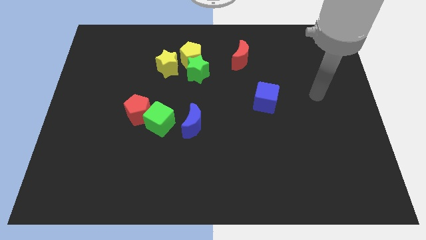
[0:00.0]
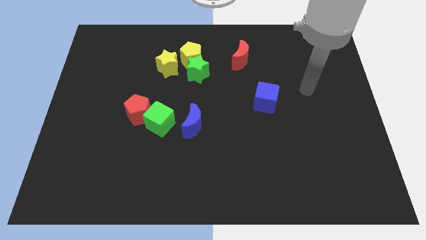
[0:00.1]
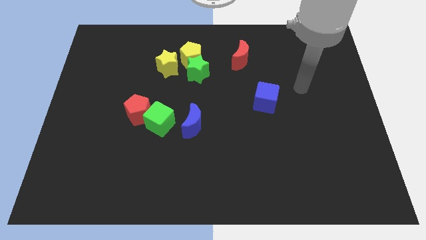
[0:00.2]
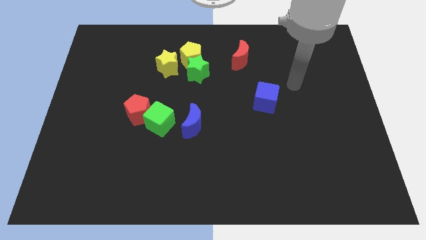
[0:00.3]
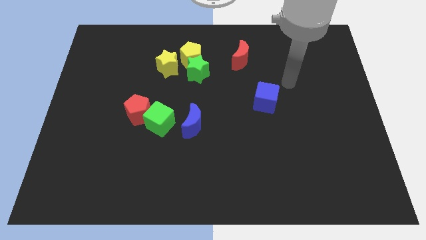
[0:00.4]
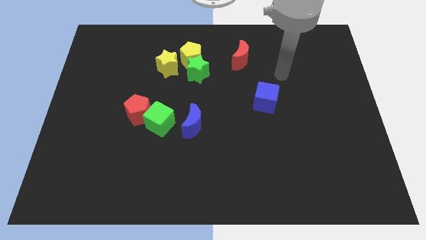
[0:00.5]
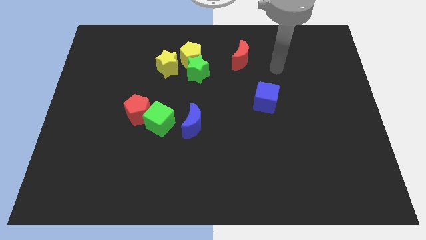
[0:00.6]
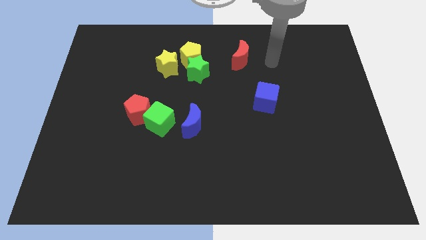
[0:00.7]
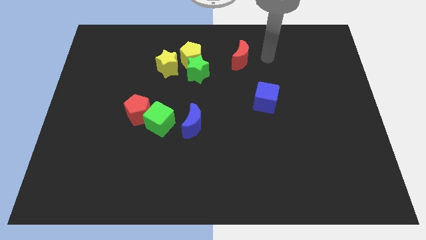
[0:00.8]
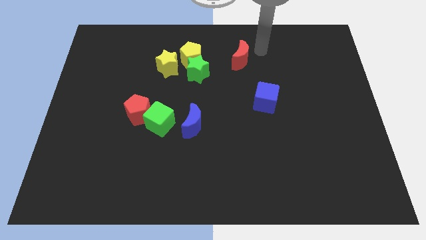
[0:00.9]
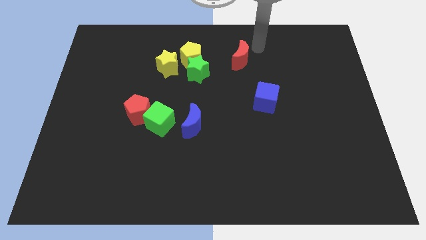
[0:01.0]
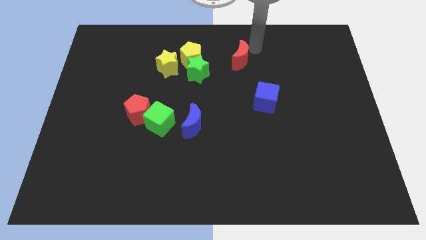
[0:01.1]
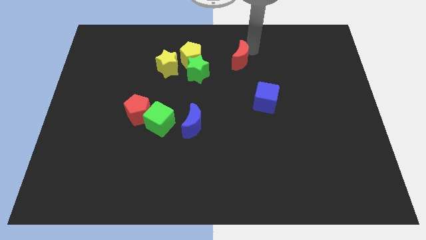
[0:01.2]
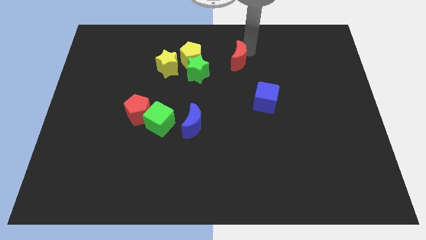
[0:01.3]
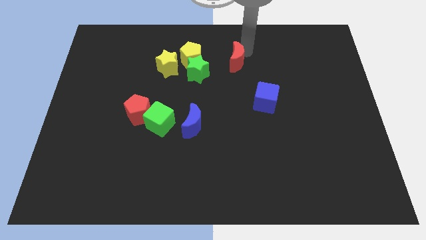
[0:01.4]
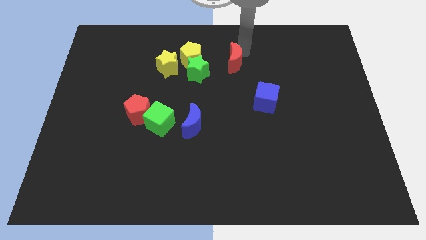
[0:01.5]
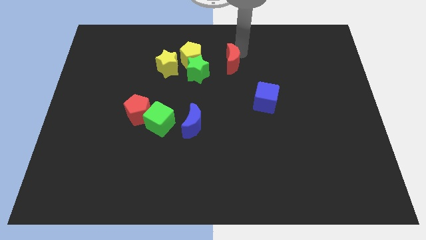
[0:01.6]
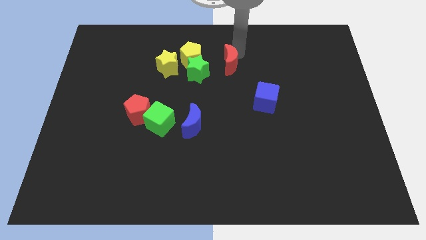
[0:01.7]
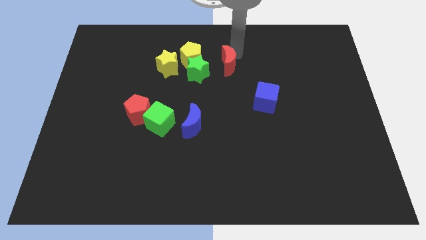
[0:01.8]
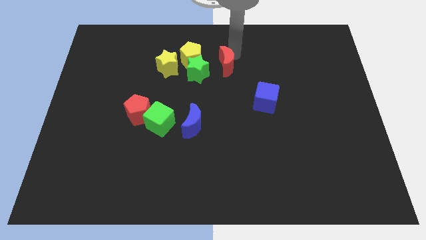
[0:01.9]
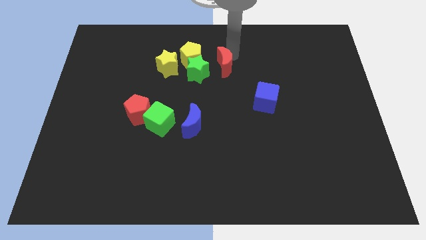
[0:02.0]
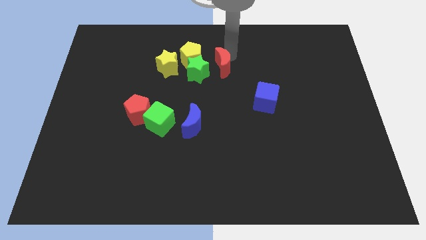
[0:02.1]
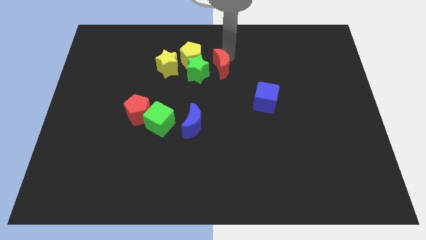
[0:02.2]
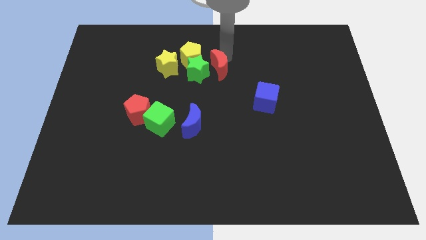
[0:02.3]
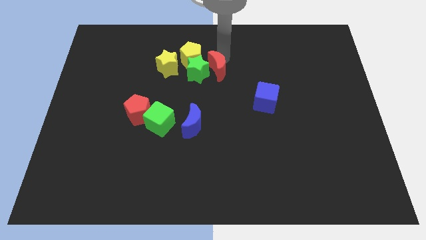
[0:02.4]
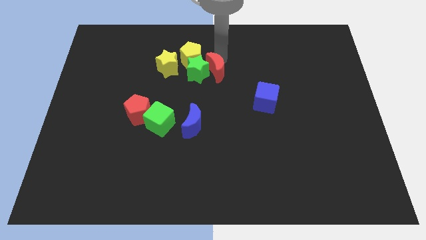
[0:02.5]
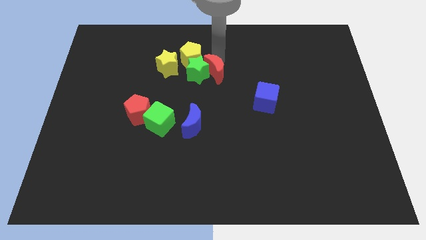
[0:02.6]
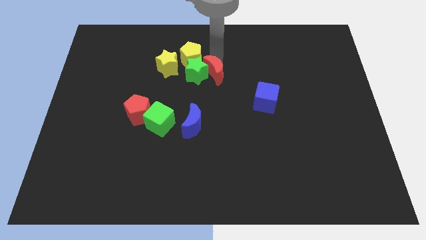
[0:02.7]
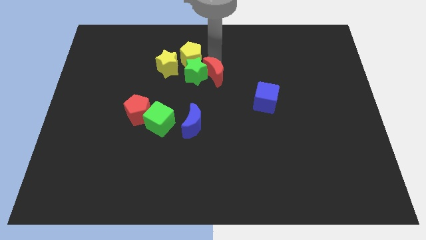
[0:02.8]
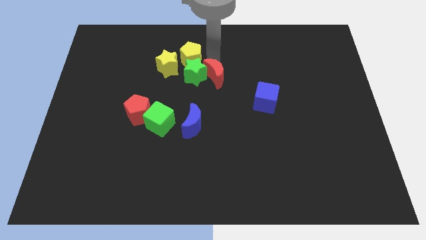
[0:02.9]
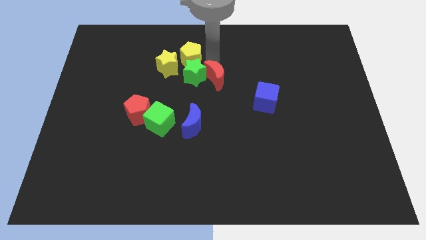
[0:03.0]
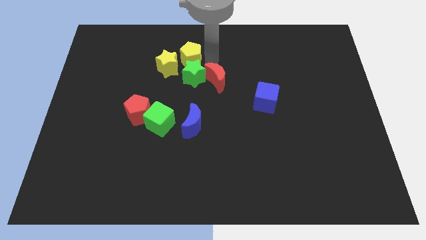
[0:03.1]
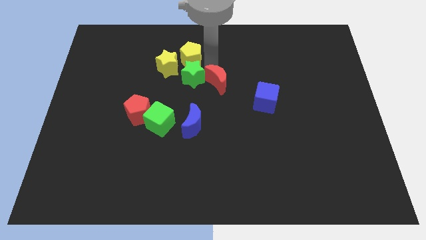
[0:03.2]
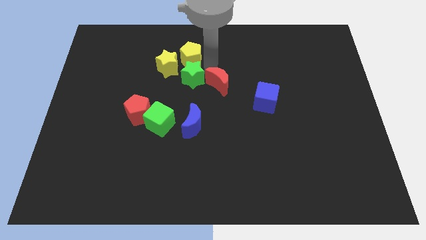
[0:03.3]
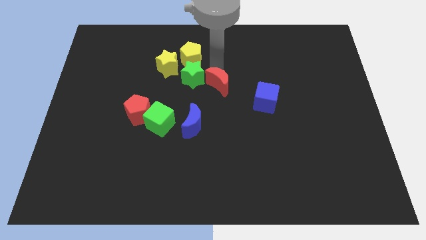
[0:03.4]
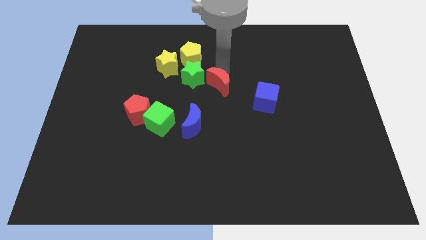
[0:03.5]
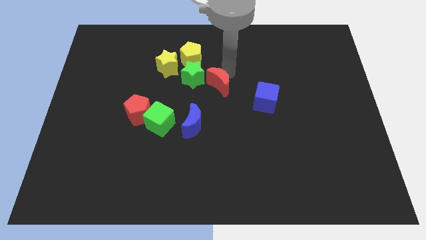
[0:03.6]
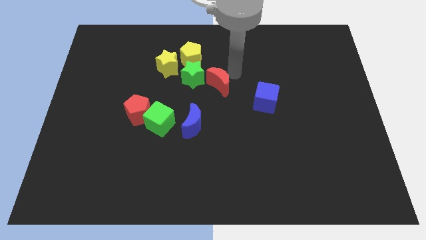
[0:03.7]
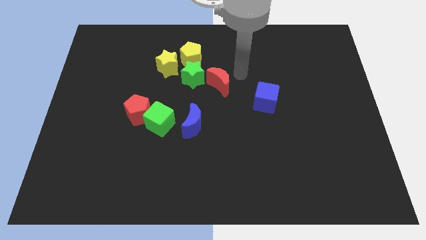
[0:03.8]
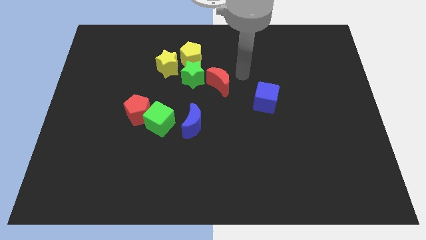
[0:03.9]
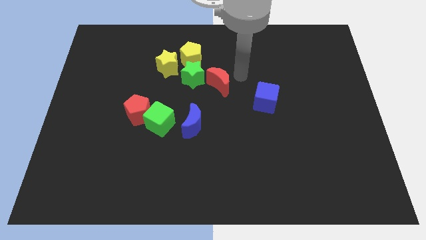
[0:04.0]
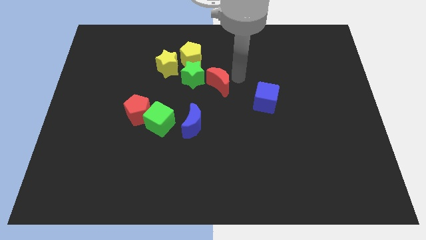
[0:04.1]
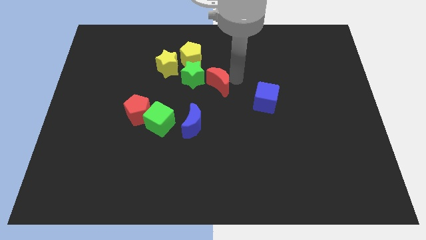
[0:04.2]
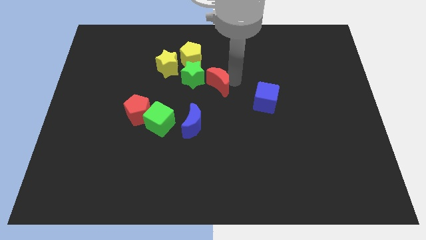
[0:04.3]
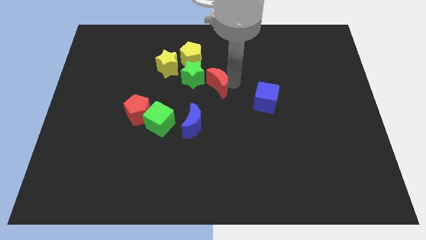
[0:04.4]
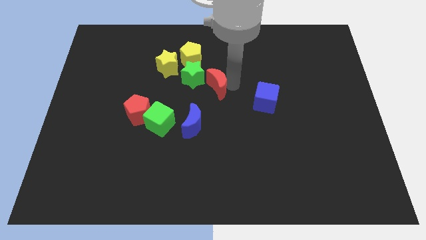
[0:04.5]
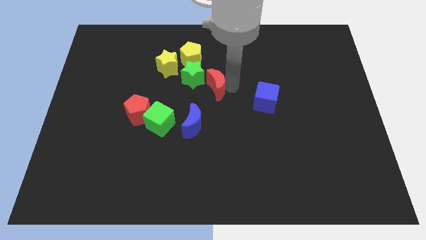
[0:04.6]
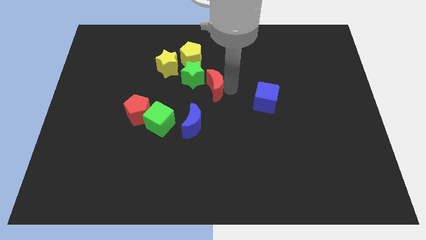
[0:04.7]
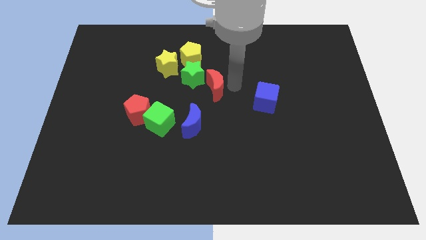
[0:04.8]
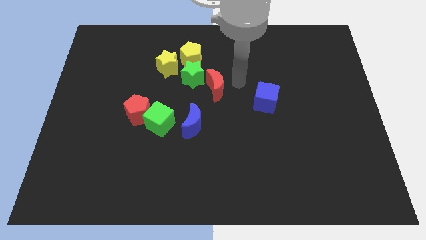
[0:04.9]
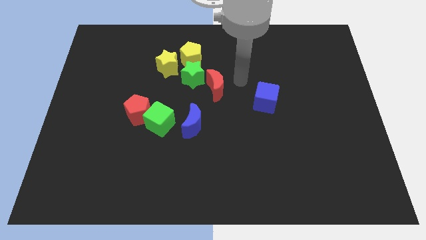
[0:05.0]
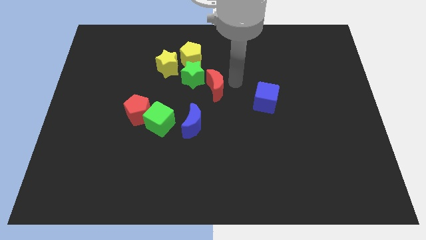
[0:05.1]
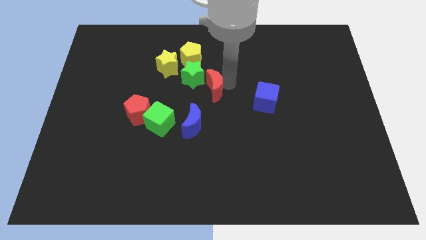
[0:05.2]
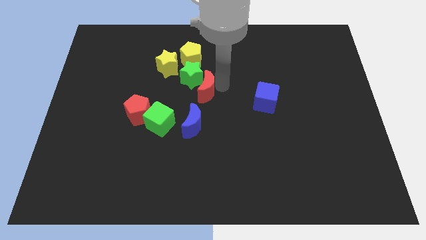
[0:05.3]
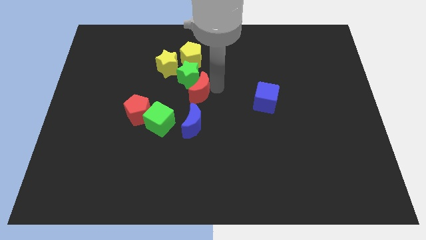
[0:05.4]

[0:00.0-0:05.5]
slide the red moon diagonally up and to the right of the green cube

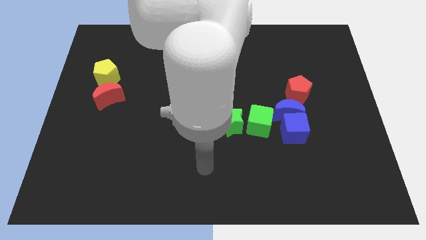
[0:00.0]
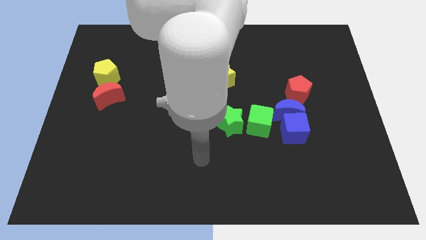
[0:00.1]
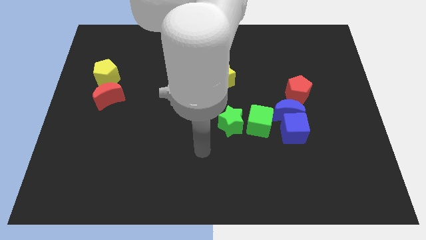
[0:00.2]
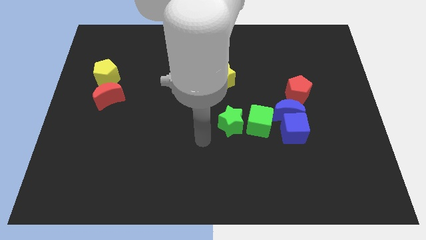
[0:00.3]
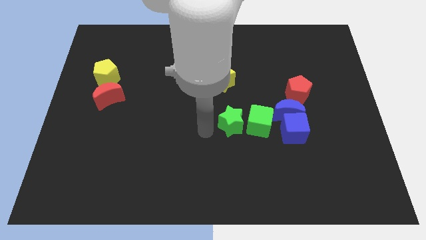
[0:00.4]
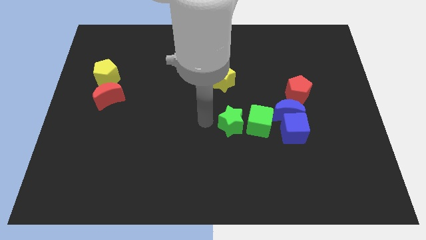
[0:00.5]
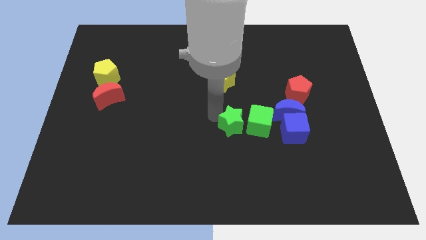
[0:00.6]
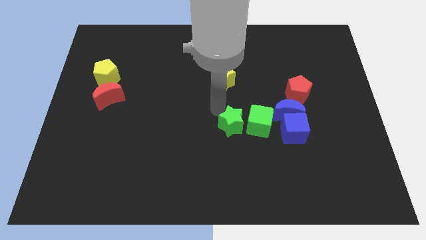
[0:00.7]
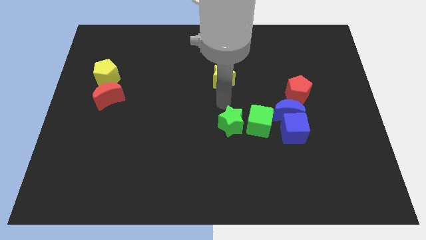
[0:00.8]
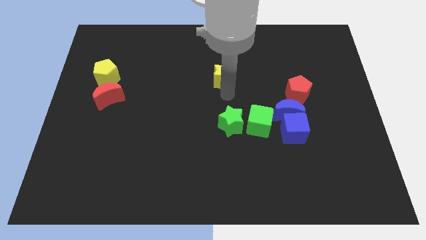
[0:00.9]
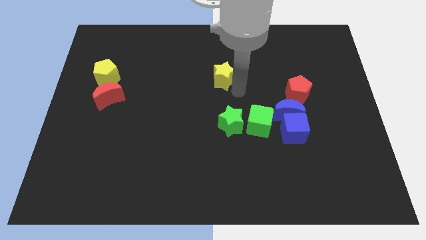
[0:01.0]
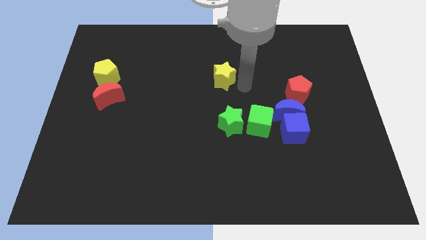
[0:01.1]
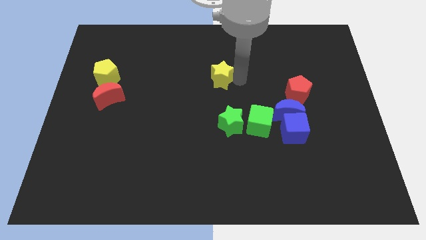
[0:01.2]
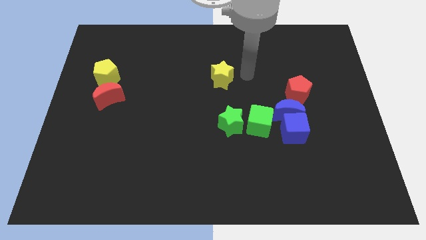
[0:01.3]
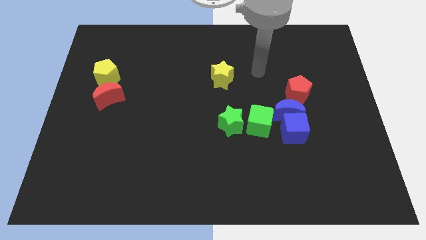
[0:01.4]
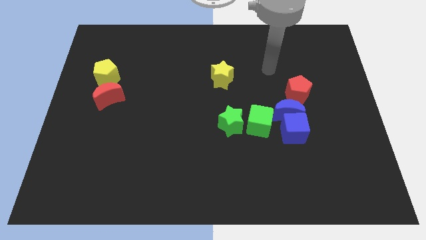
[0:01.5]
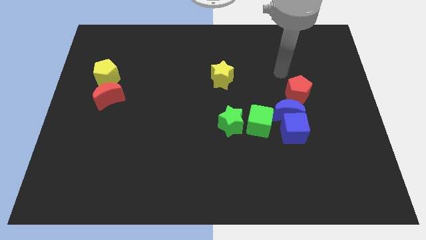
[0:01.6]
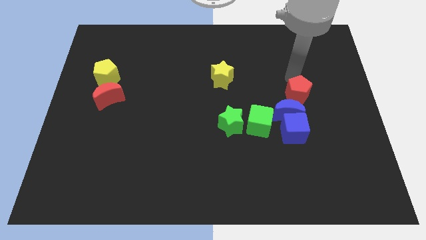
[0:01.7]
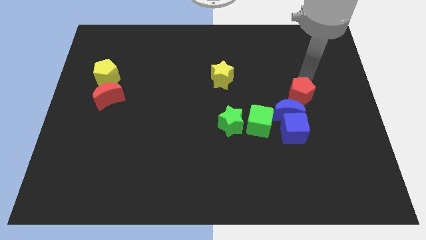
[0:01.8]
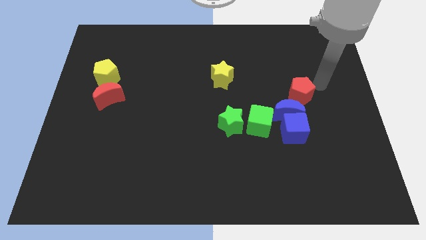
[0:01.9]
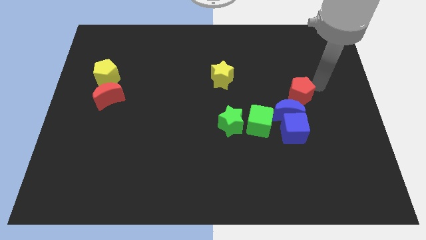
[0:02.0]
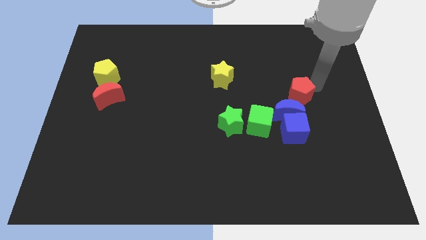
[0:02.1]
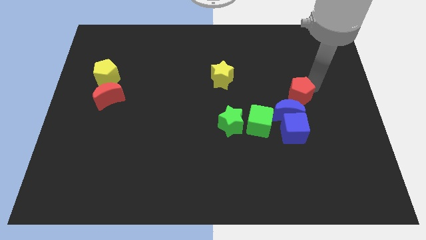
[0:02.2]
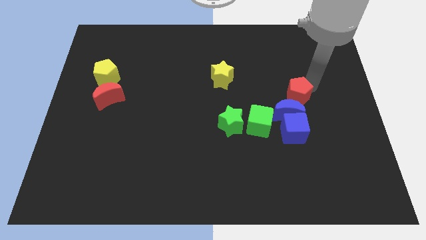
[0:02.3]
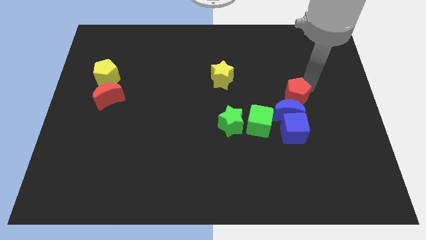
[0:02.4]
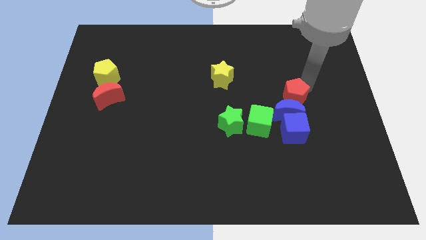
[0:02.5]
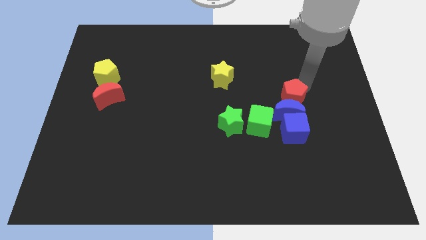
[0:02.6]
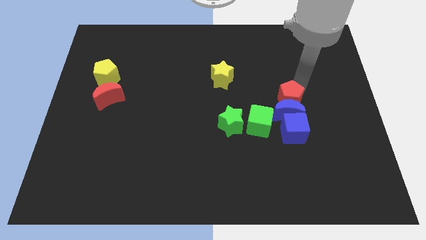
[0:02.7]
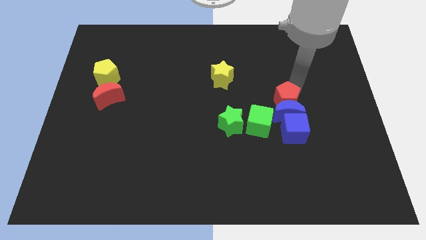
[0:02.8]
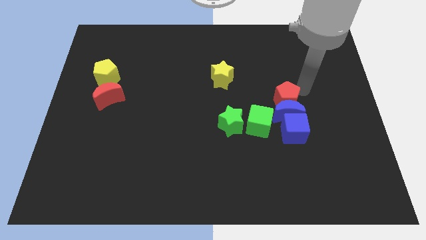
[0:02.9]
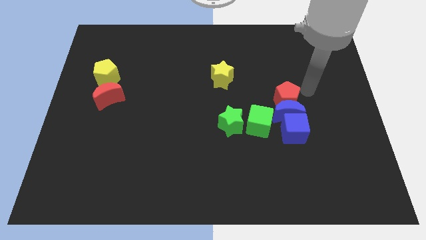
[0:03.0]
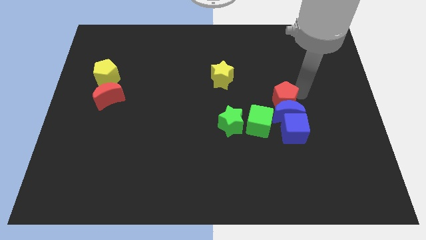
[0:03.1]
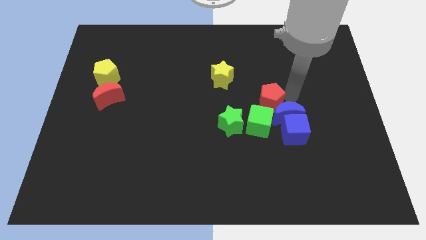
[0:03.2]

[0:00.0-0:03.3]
slide the red pentagon to the left side of the blue moon
